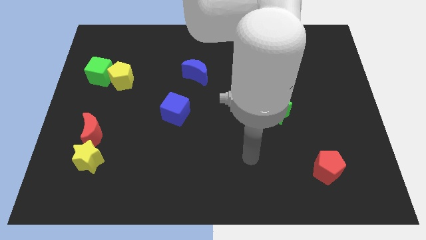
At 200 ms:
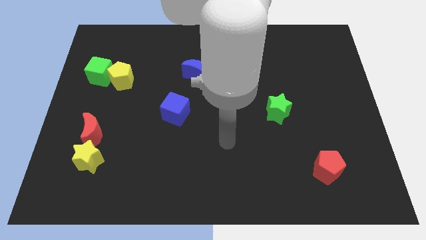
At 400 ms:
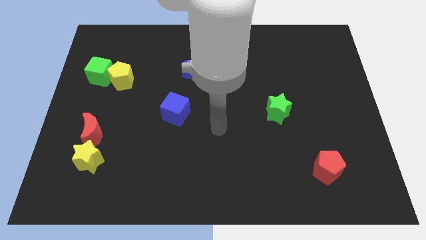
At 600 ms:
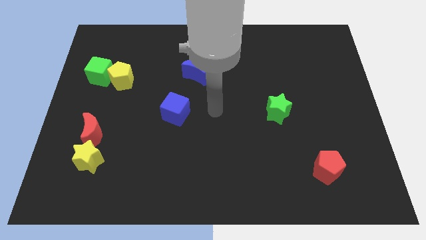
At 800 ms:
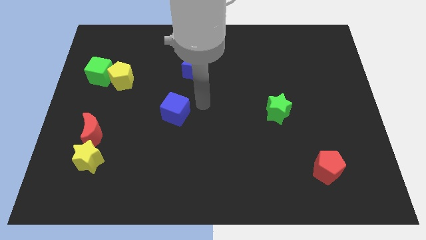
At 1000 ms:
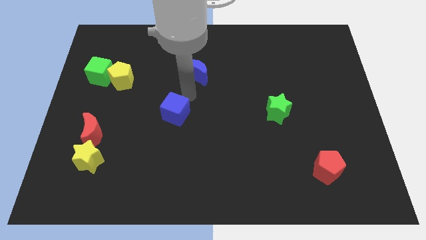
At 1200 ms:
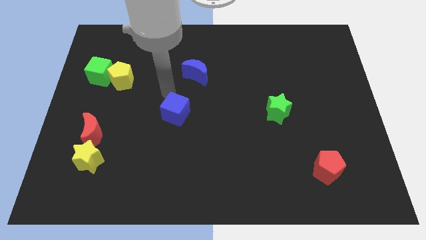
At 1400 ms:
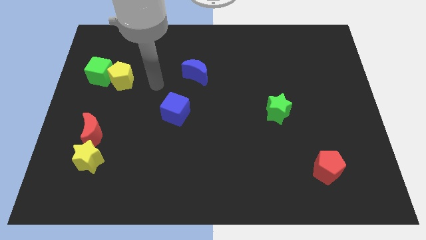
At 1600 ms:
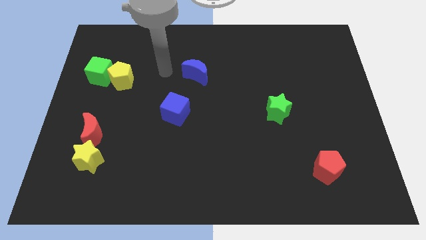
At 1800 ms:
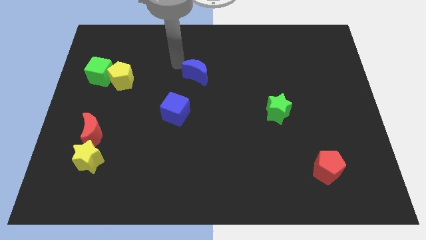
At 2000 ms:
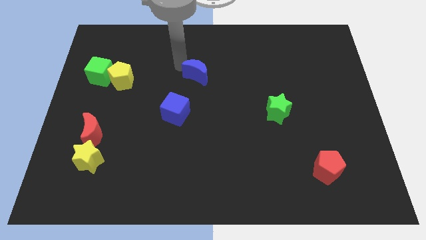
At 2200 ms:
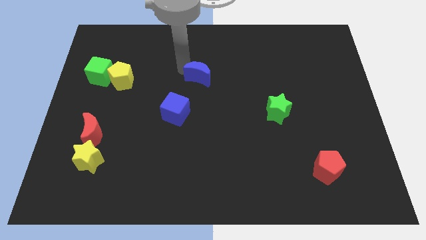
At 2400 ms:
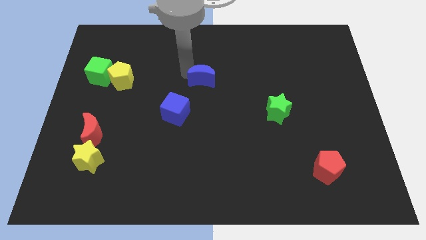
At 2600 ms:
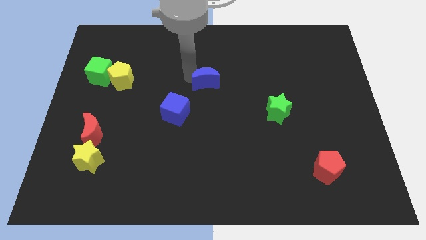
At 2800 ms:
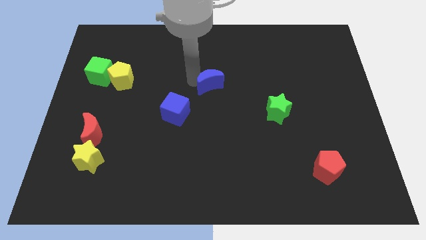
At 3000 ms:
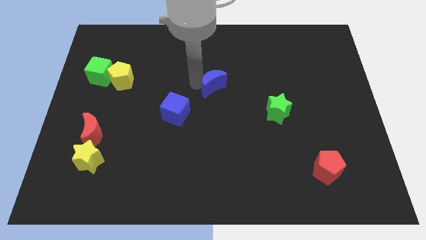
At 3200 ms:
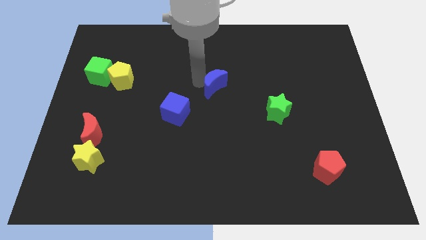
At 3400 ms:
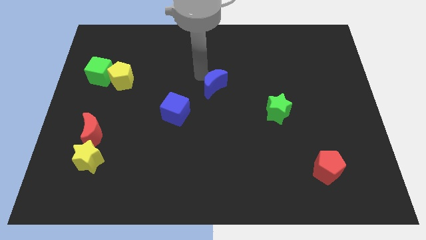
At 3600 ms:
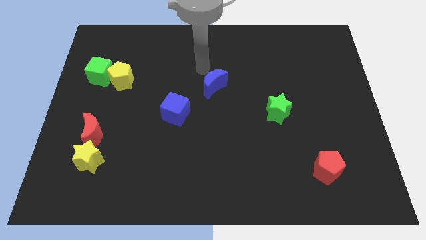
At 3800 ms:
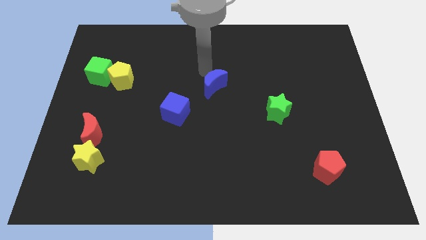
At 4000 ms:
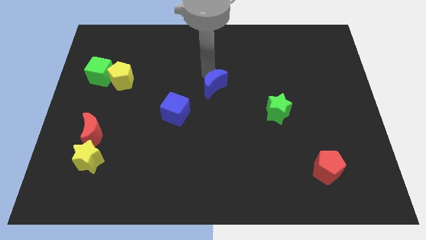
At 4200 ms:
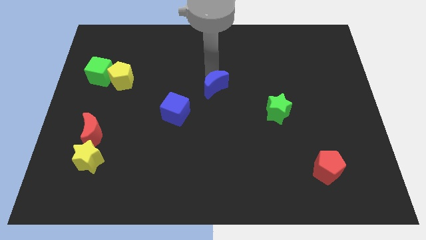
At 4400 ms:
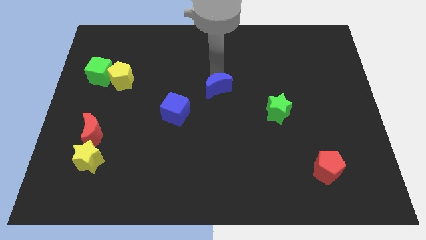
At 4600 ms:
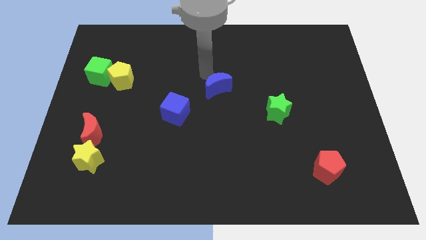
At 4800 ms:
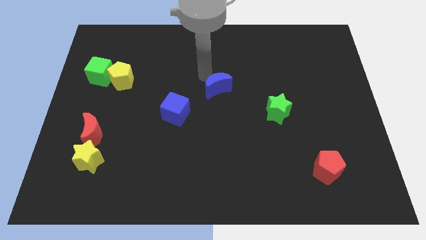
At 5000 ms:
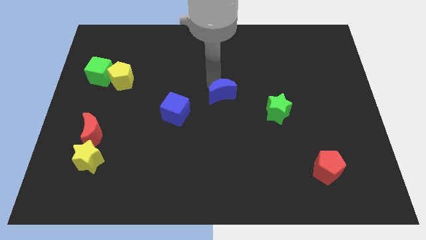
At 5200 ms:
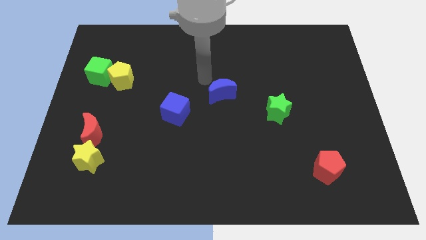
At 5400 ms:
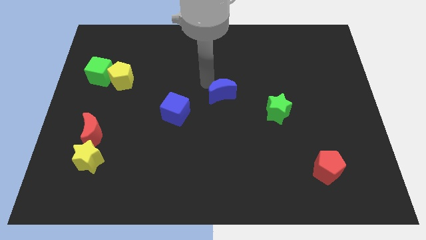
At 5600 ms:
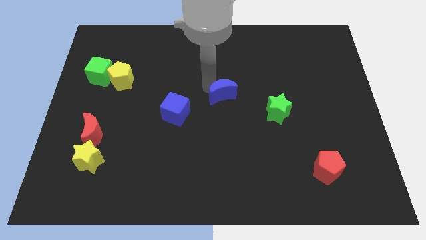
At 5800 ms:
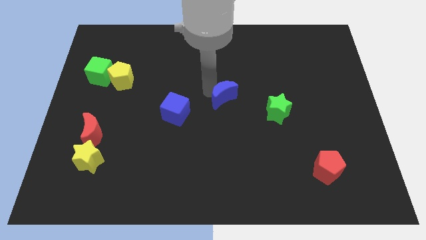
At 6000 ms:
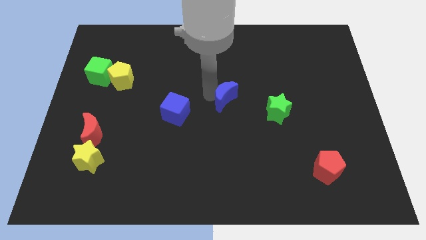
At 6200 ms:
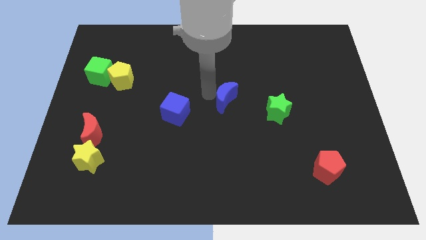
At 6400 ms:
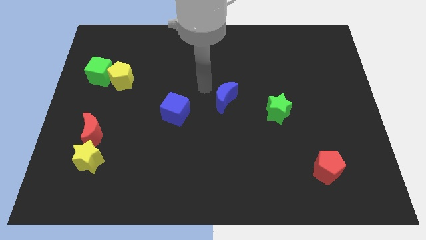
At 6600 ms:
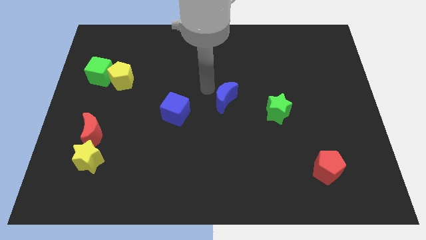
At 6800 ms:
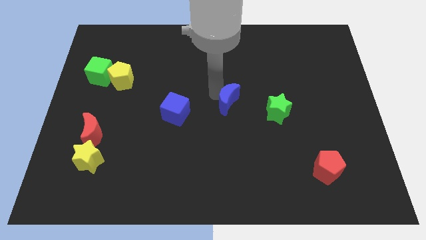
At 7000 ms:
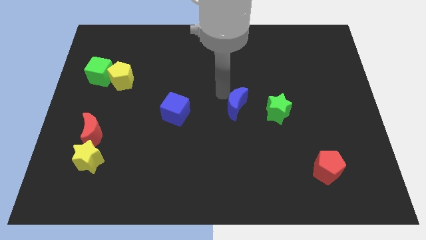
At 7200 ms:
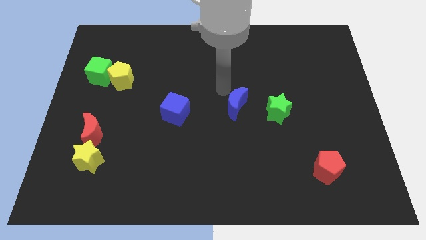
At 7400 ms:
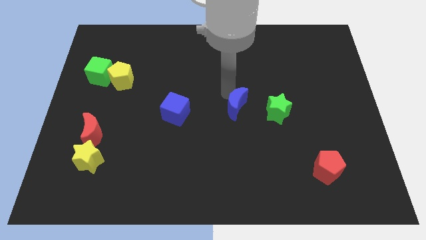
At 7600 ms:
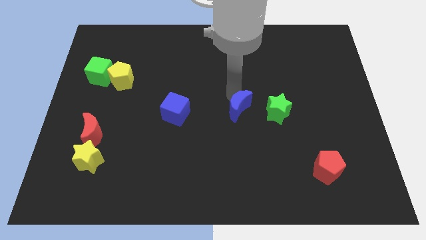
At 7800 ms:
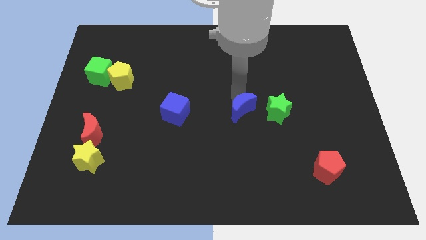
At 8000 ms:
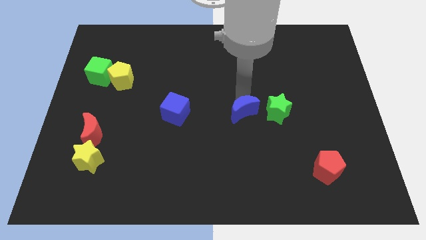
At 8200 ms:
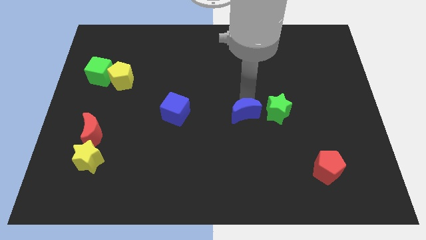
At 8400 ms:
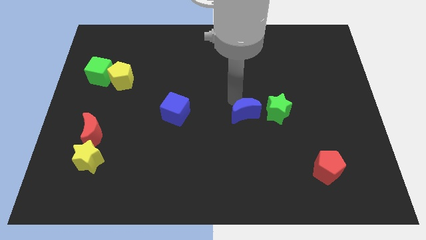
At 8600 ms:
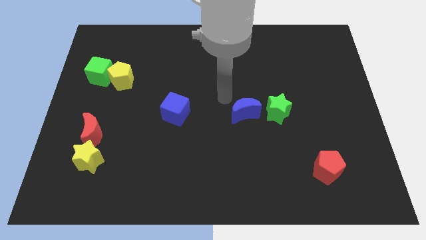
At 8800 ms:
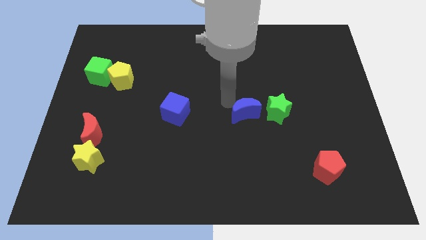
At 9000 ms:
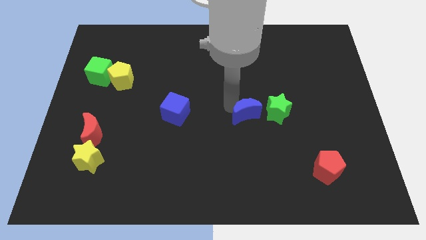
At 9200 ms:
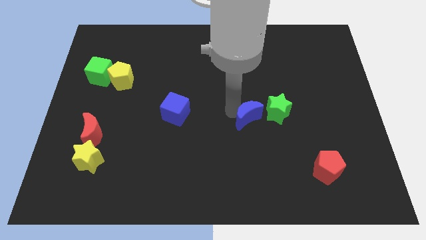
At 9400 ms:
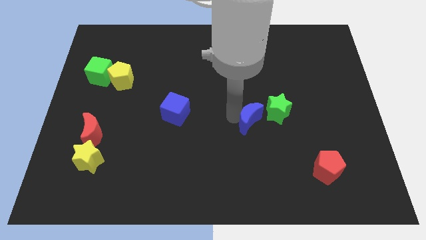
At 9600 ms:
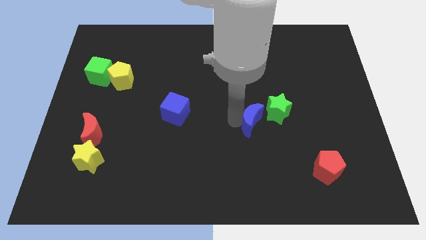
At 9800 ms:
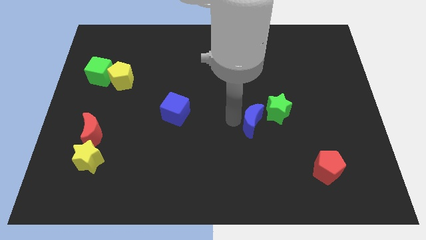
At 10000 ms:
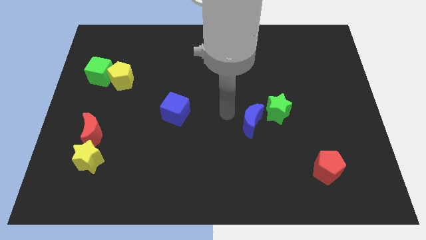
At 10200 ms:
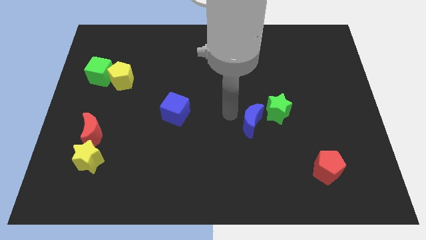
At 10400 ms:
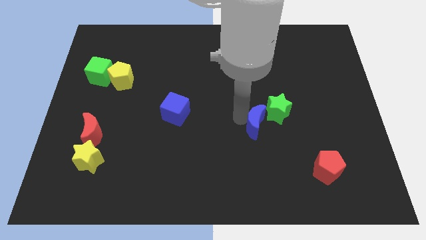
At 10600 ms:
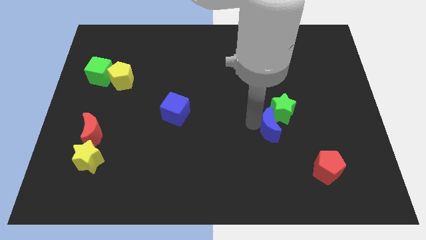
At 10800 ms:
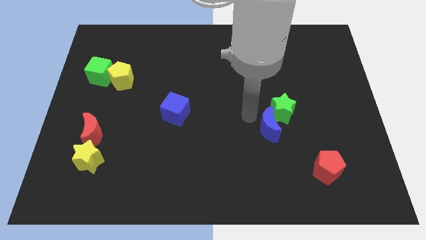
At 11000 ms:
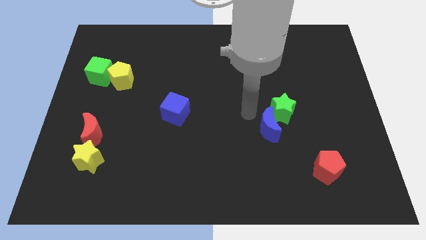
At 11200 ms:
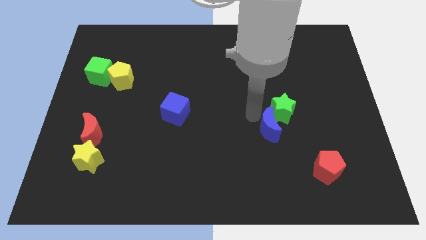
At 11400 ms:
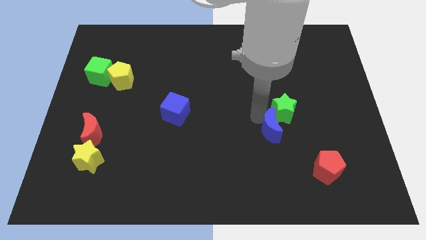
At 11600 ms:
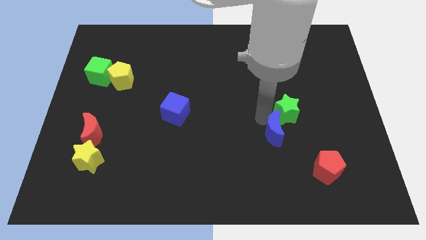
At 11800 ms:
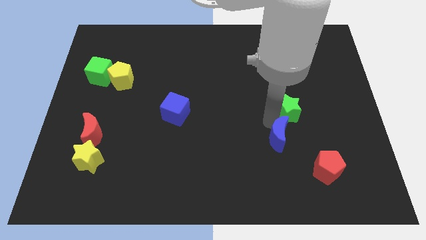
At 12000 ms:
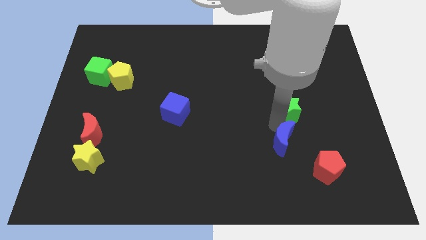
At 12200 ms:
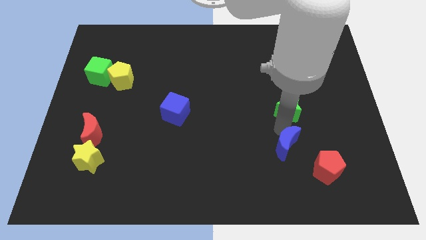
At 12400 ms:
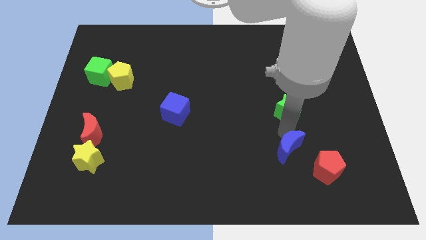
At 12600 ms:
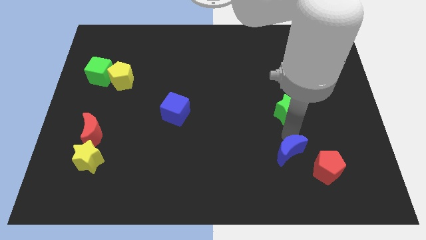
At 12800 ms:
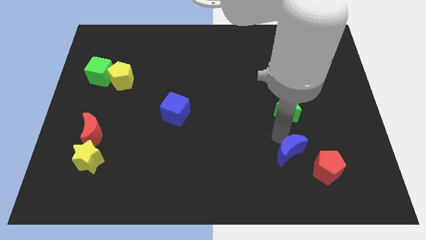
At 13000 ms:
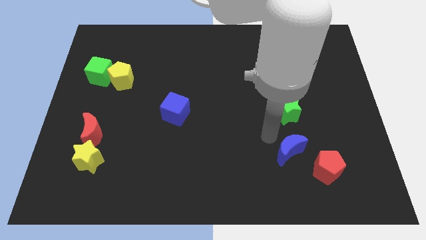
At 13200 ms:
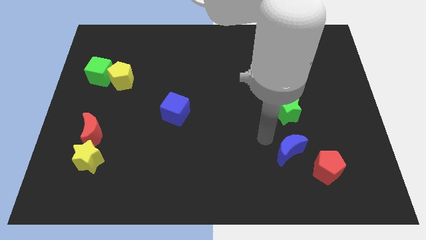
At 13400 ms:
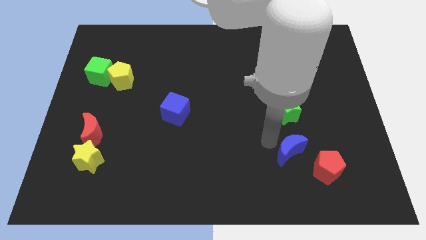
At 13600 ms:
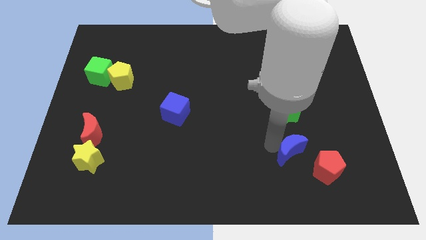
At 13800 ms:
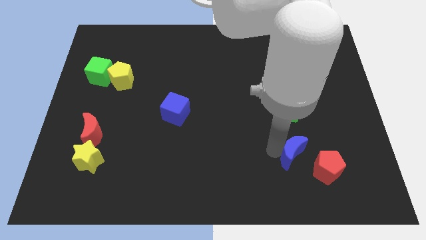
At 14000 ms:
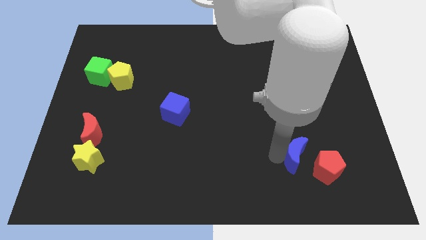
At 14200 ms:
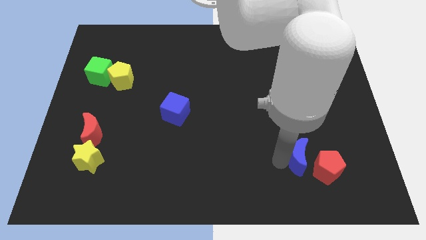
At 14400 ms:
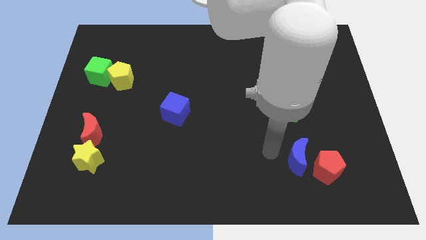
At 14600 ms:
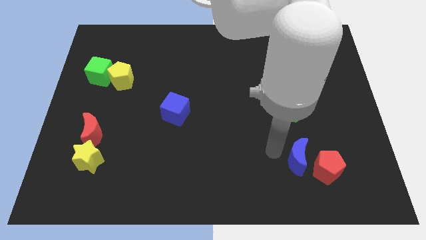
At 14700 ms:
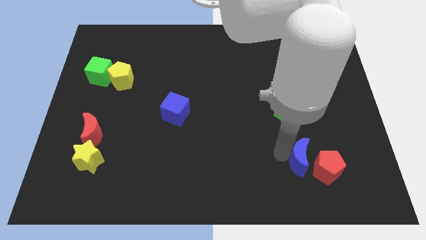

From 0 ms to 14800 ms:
move the blue moon to the red pentagon
